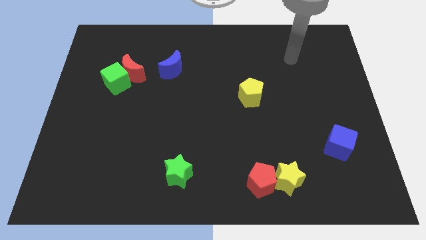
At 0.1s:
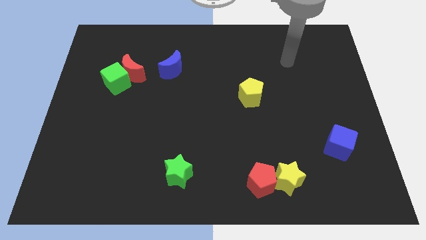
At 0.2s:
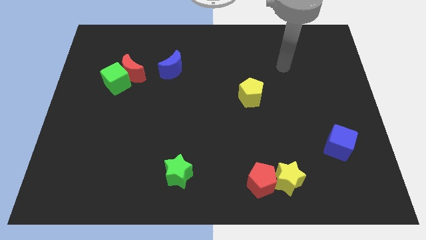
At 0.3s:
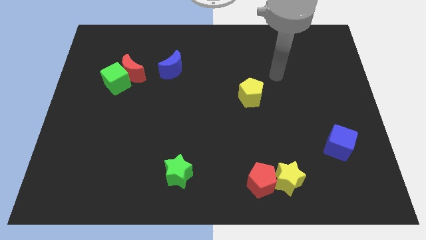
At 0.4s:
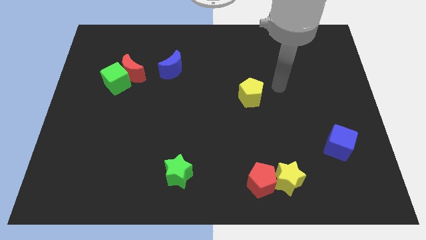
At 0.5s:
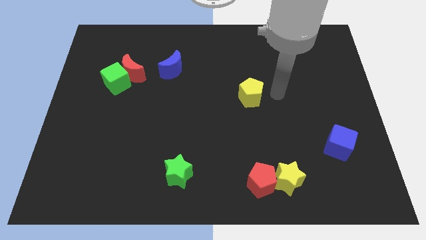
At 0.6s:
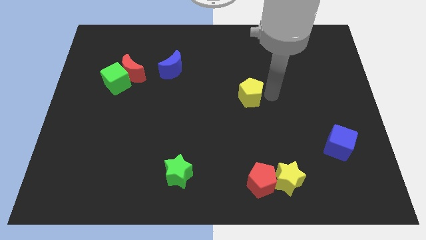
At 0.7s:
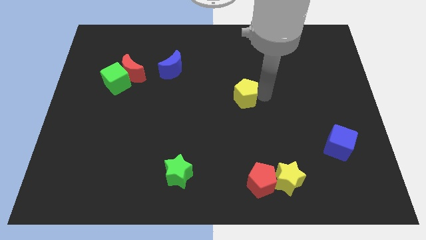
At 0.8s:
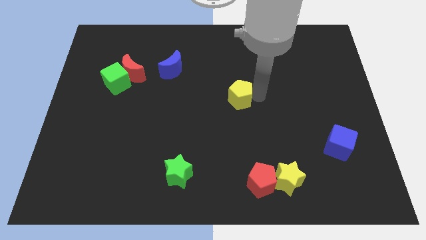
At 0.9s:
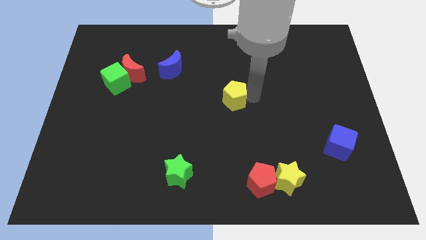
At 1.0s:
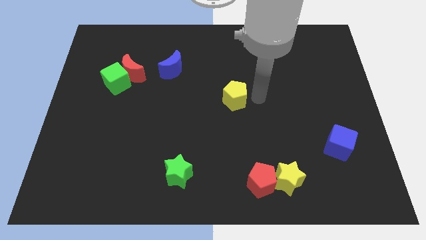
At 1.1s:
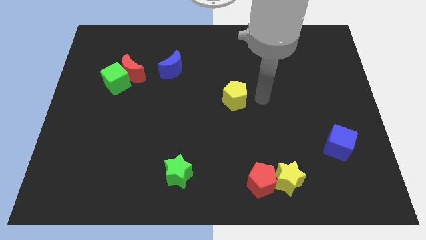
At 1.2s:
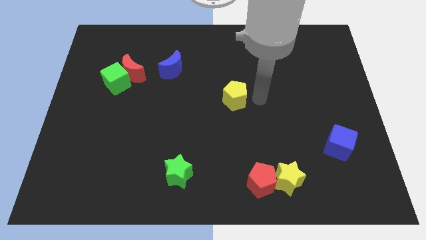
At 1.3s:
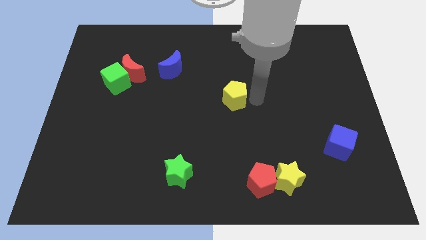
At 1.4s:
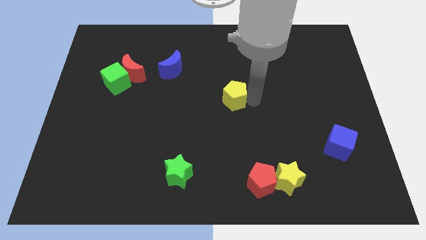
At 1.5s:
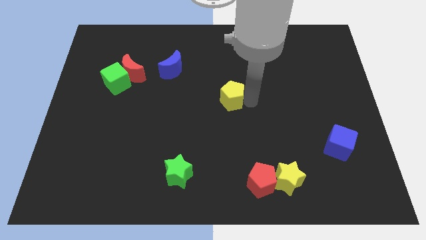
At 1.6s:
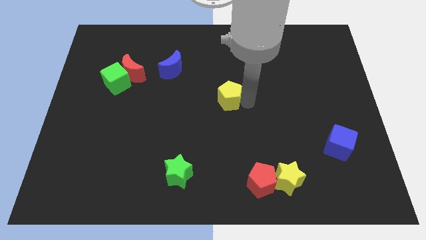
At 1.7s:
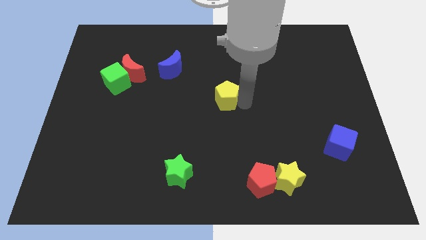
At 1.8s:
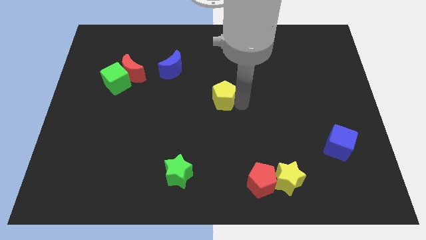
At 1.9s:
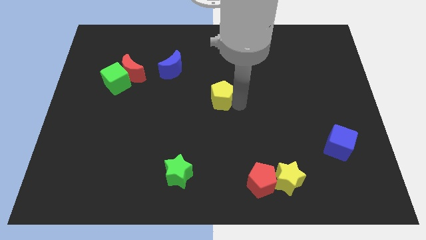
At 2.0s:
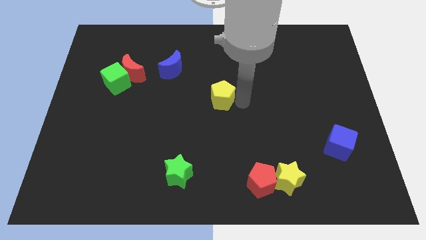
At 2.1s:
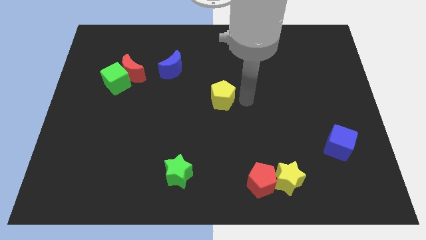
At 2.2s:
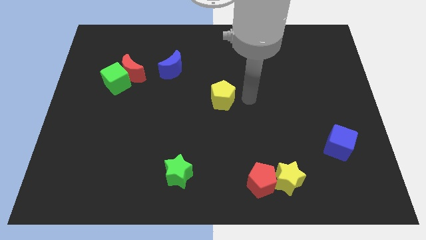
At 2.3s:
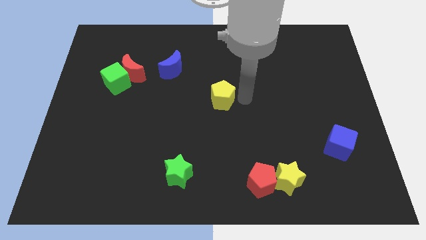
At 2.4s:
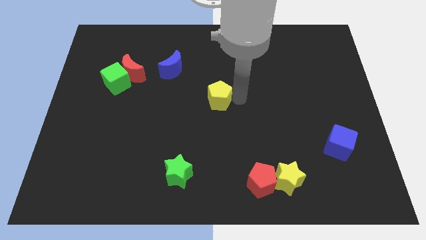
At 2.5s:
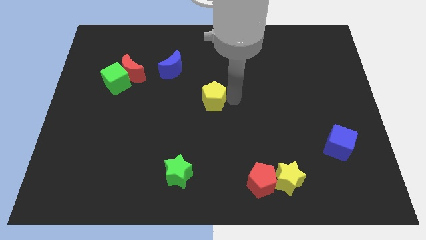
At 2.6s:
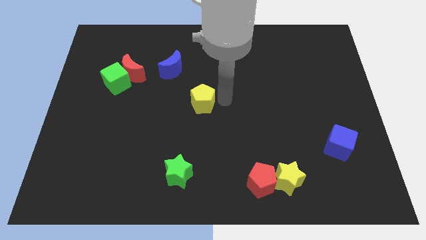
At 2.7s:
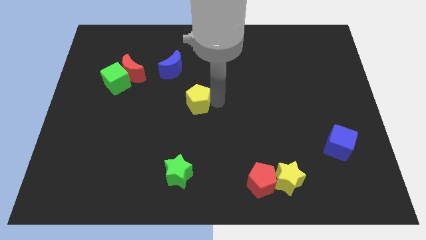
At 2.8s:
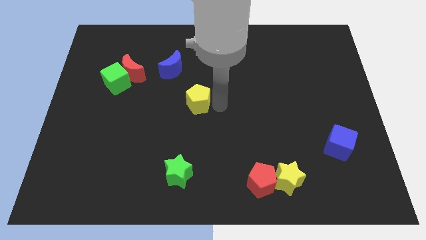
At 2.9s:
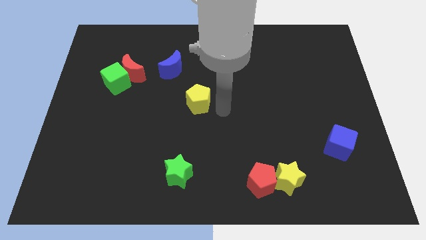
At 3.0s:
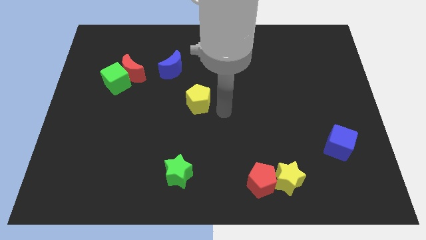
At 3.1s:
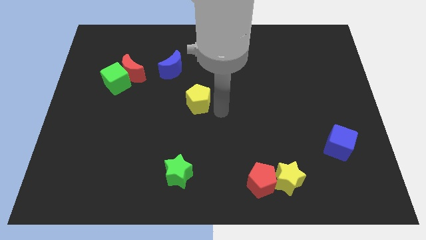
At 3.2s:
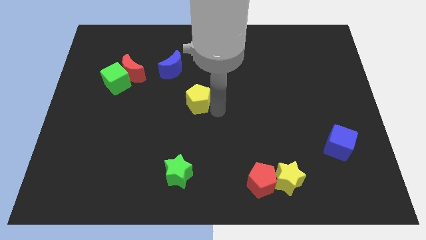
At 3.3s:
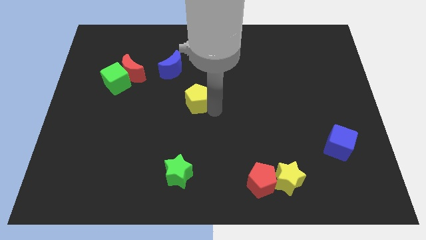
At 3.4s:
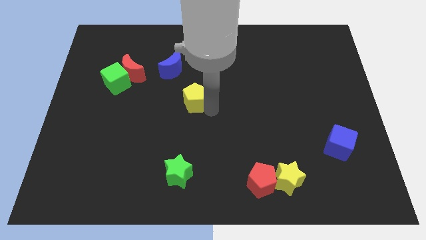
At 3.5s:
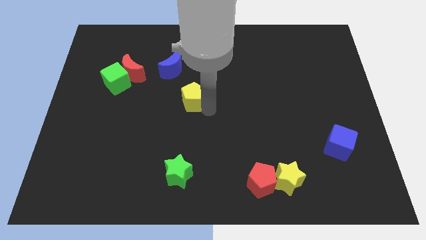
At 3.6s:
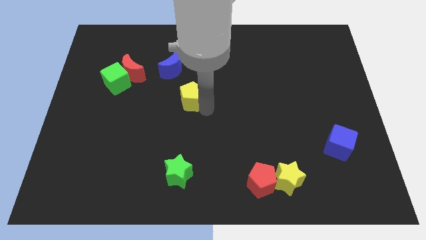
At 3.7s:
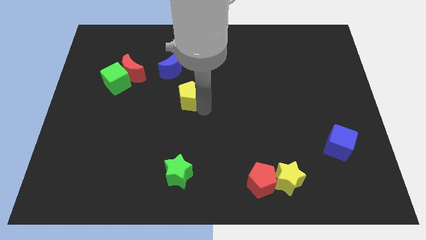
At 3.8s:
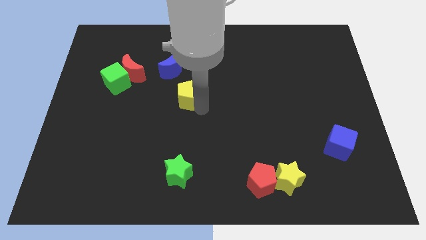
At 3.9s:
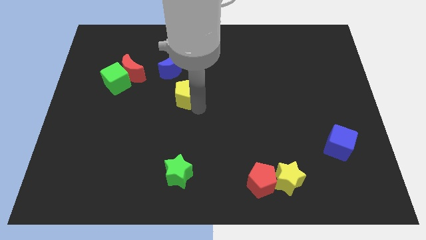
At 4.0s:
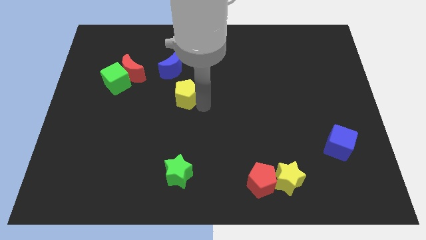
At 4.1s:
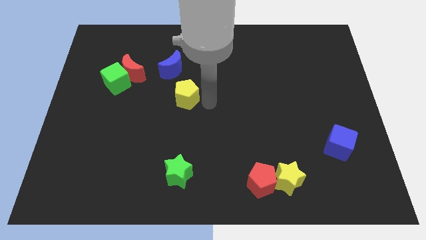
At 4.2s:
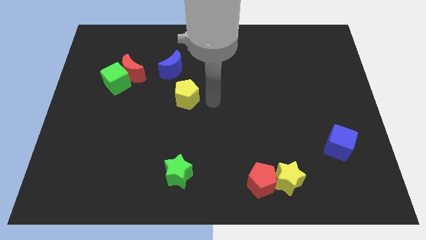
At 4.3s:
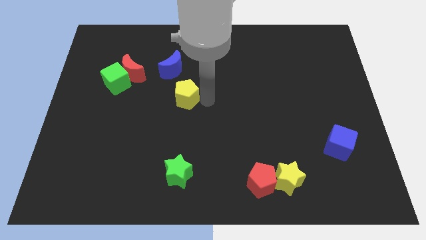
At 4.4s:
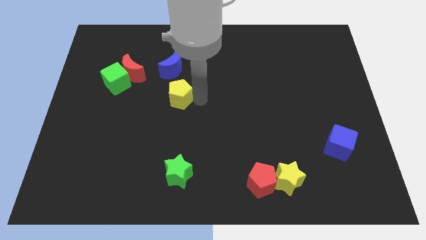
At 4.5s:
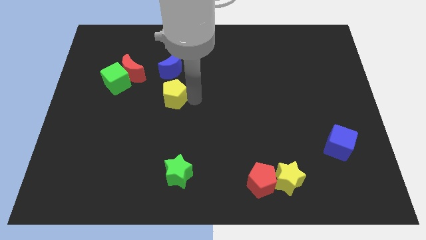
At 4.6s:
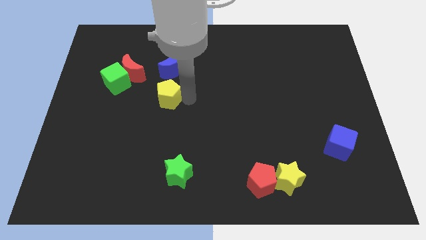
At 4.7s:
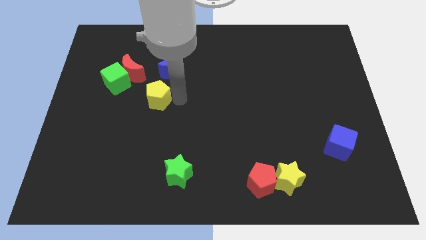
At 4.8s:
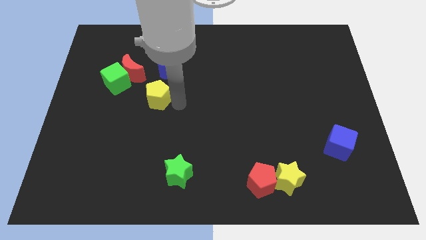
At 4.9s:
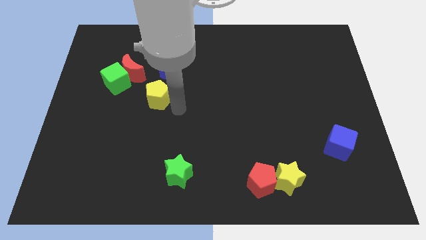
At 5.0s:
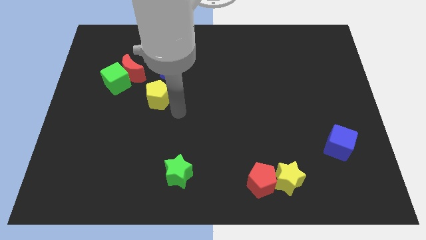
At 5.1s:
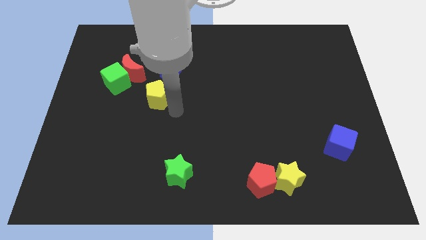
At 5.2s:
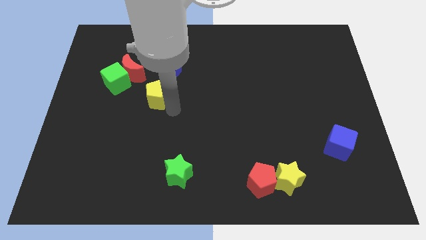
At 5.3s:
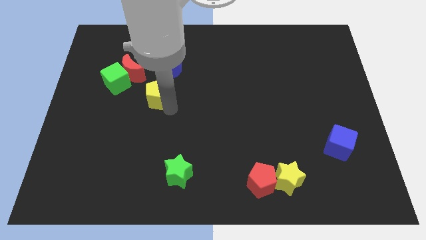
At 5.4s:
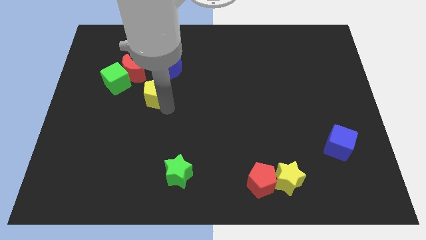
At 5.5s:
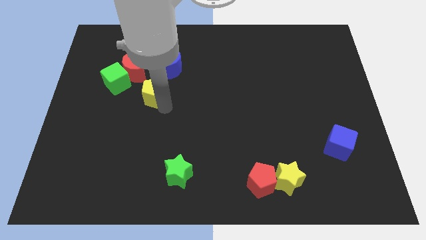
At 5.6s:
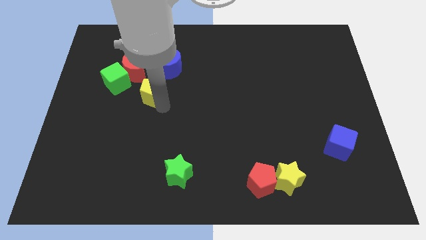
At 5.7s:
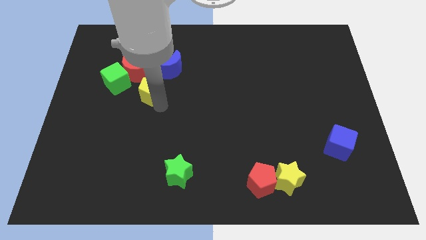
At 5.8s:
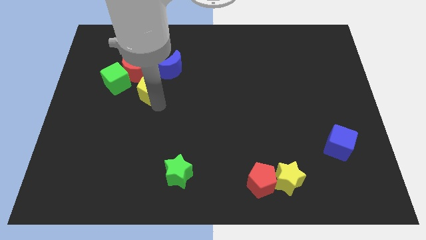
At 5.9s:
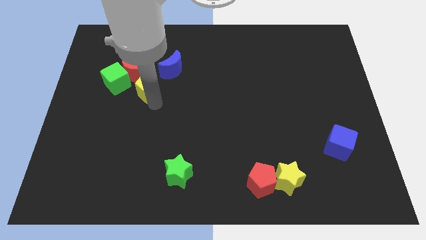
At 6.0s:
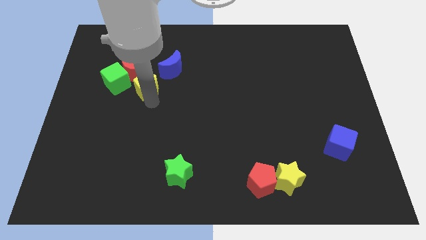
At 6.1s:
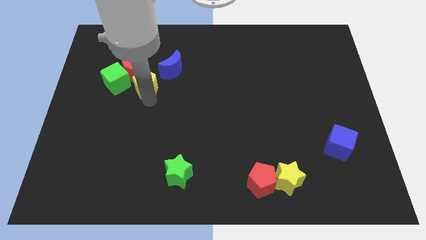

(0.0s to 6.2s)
push the yellow pentagon to the red moon

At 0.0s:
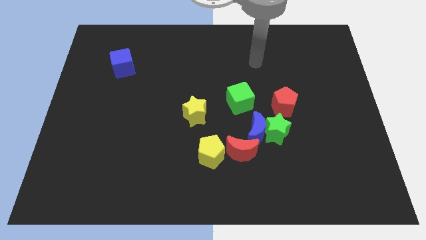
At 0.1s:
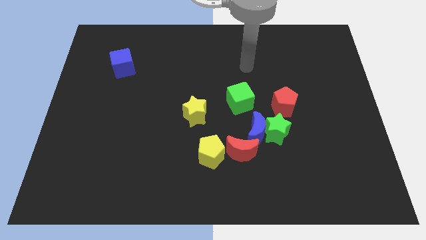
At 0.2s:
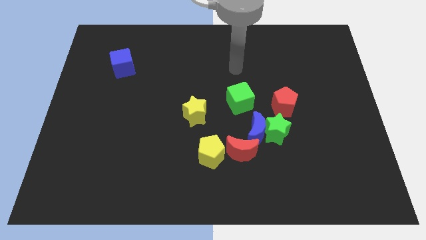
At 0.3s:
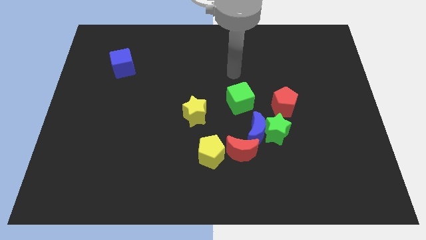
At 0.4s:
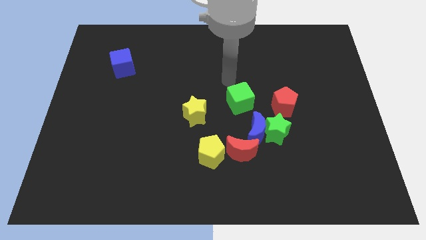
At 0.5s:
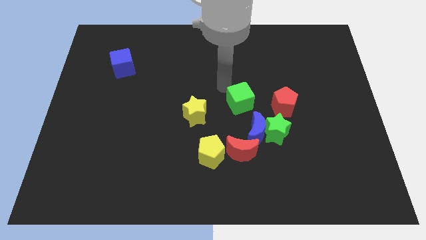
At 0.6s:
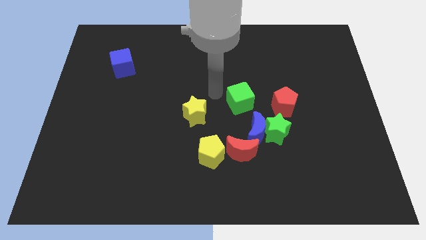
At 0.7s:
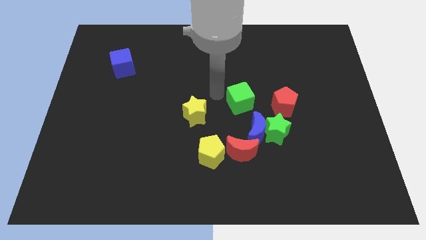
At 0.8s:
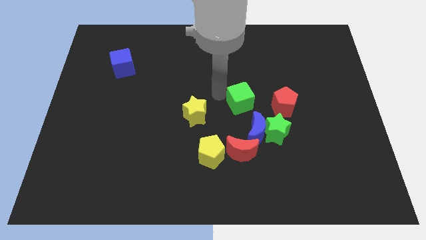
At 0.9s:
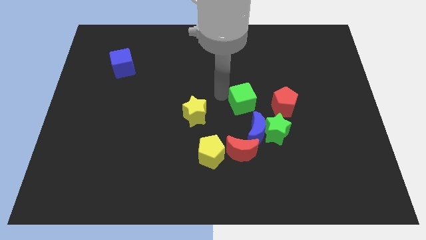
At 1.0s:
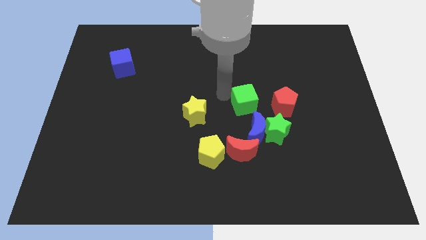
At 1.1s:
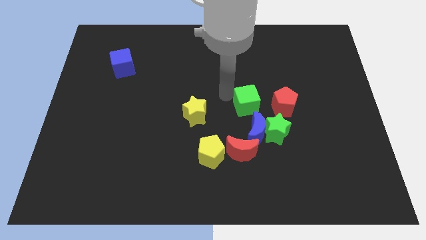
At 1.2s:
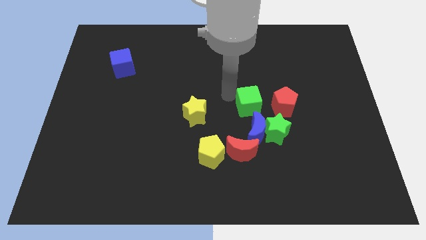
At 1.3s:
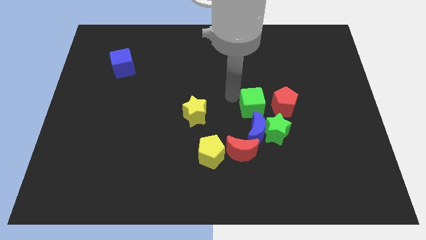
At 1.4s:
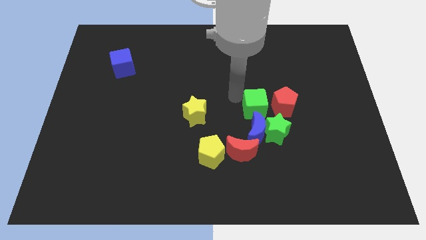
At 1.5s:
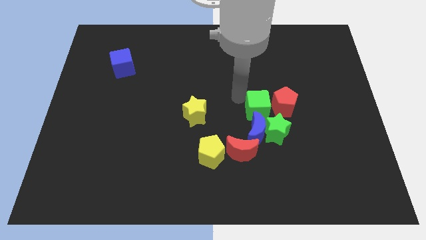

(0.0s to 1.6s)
put the green cube to the red pentagon
